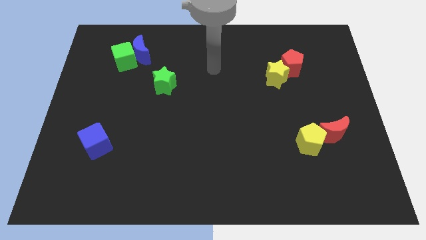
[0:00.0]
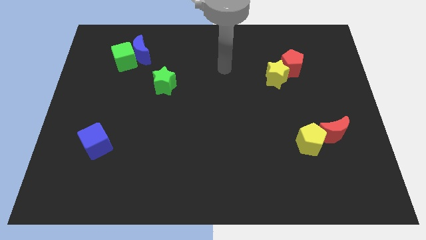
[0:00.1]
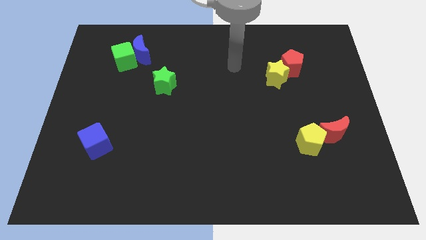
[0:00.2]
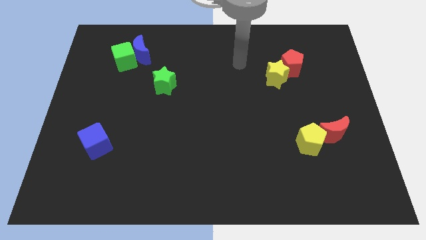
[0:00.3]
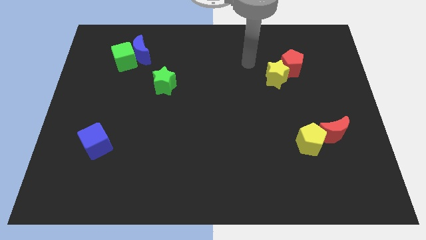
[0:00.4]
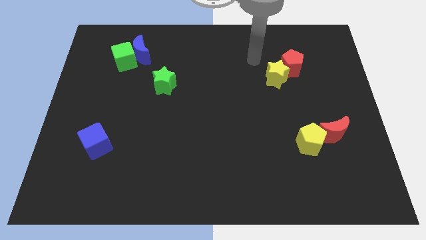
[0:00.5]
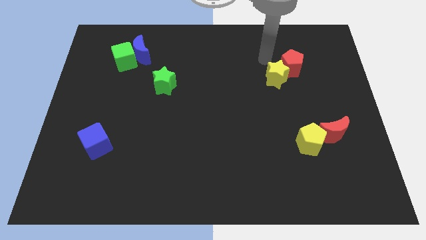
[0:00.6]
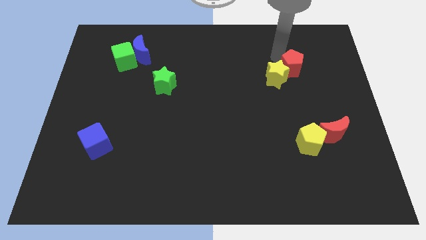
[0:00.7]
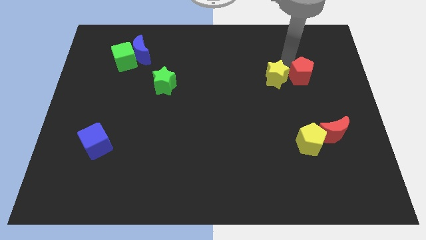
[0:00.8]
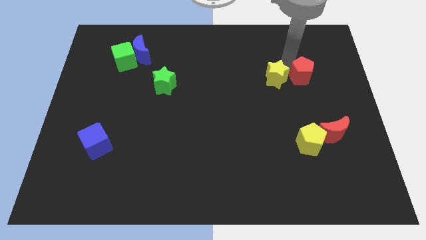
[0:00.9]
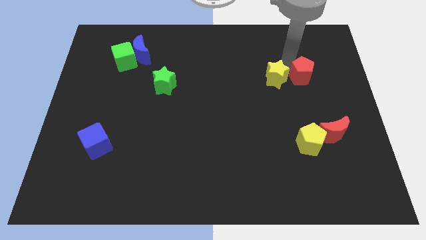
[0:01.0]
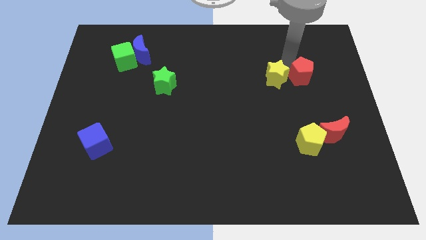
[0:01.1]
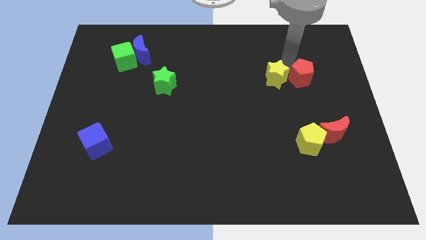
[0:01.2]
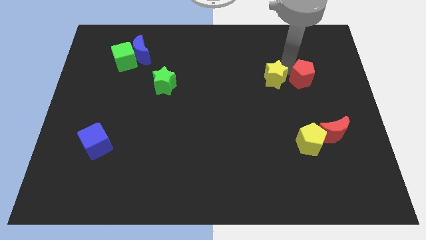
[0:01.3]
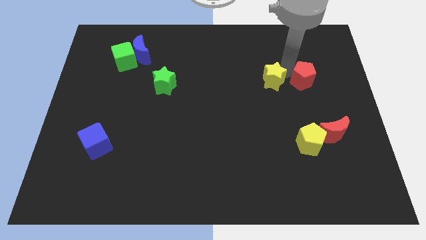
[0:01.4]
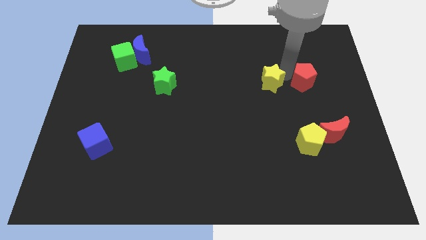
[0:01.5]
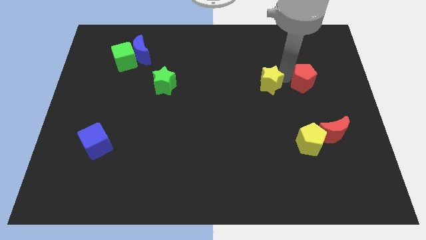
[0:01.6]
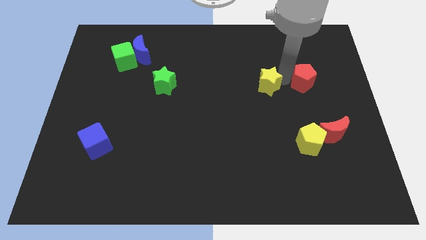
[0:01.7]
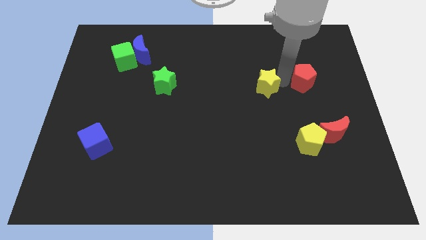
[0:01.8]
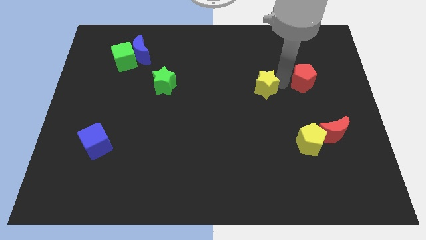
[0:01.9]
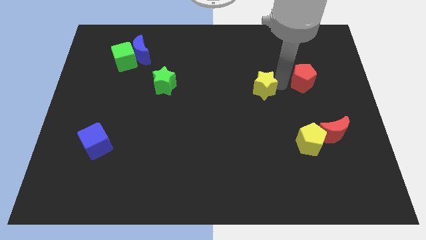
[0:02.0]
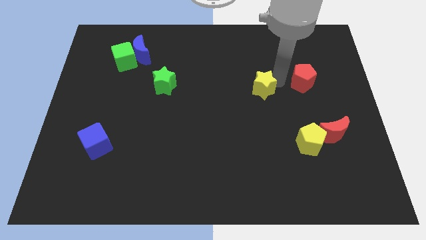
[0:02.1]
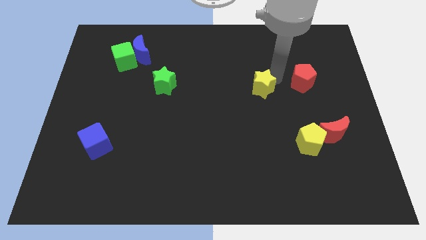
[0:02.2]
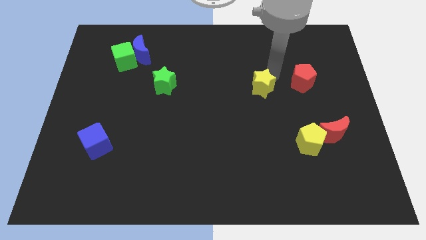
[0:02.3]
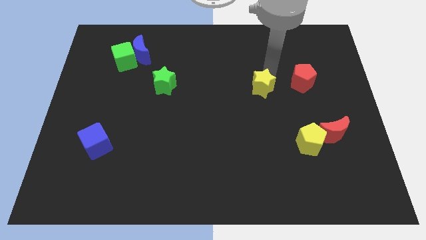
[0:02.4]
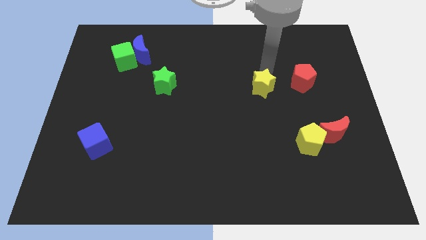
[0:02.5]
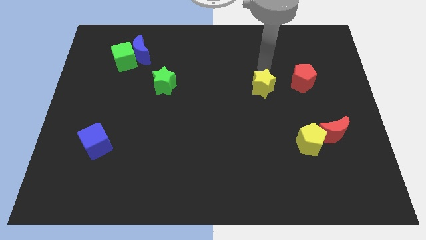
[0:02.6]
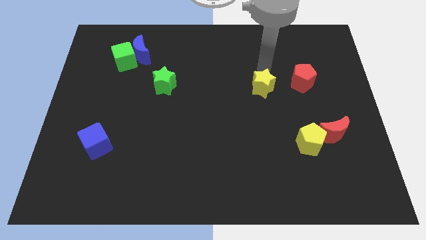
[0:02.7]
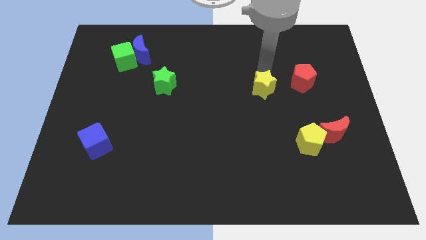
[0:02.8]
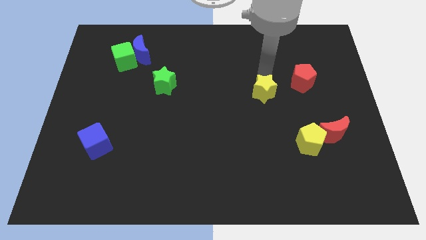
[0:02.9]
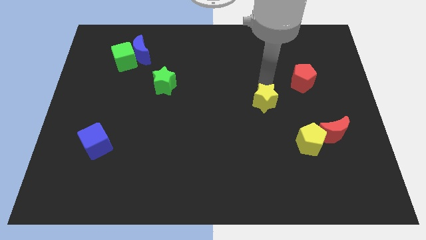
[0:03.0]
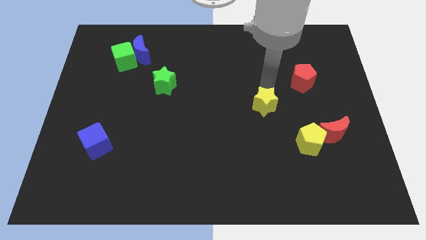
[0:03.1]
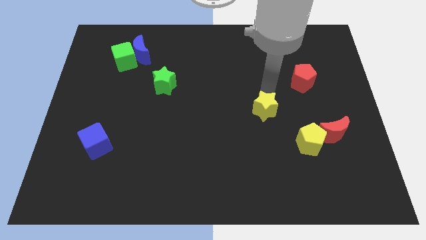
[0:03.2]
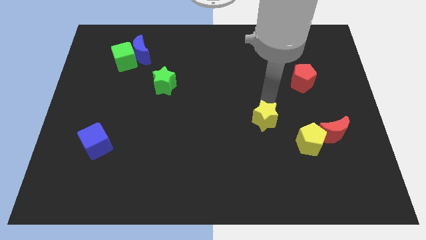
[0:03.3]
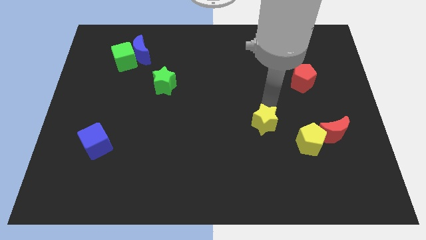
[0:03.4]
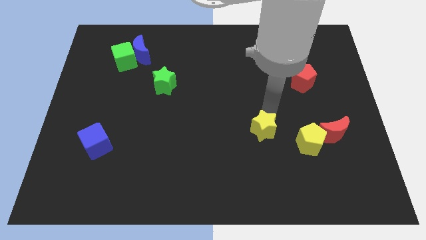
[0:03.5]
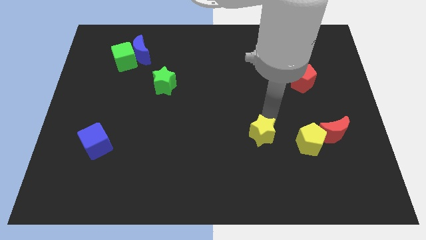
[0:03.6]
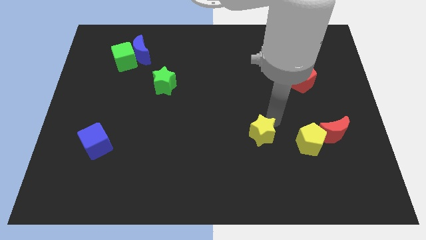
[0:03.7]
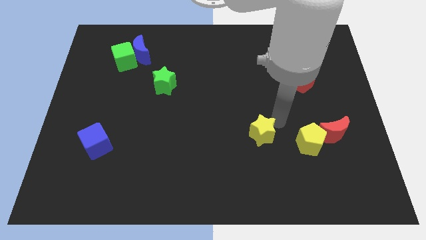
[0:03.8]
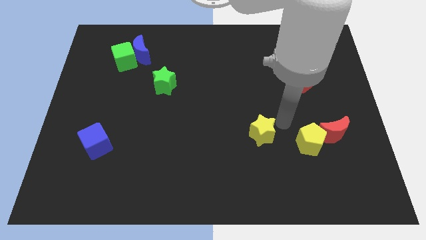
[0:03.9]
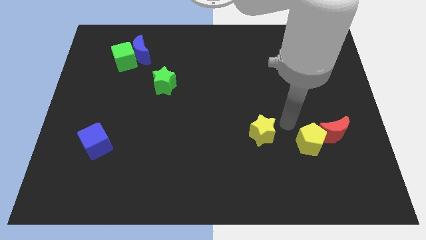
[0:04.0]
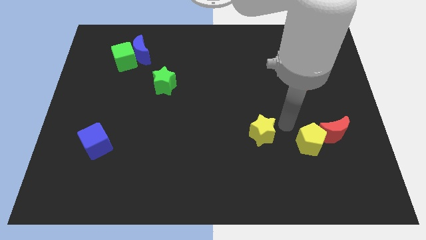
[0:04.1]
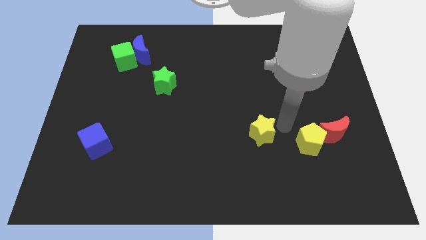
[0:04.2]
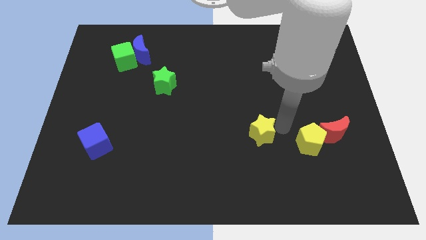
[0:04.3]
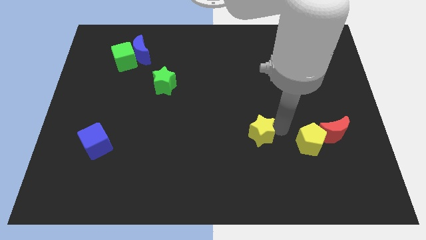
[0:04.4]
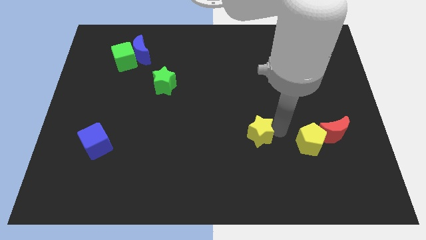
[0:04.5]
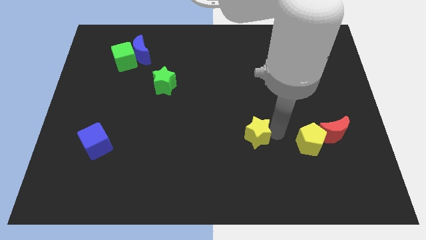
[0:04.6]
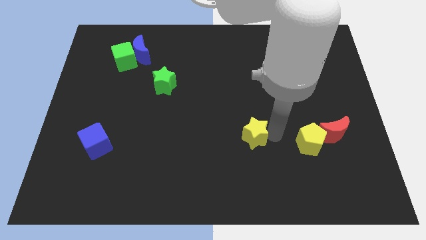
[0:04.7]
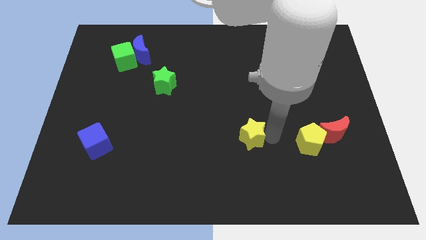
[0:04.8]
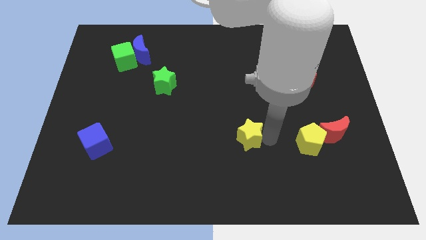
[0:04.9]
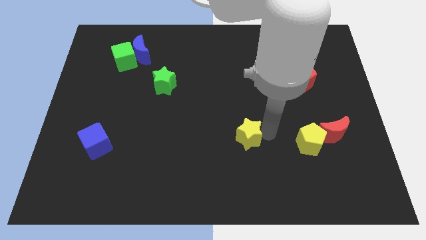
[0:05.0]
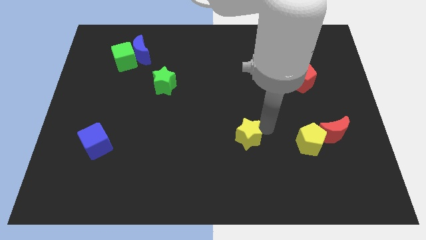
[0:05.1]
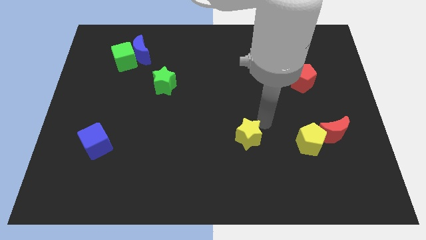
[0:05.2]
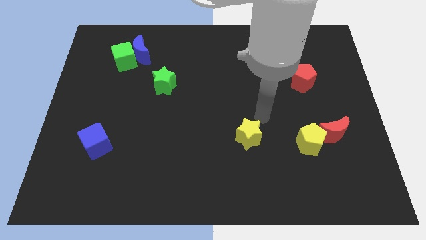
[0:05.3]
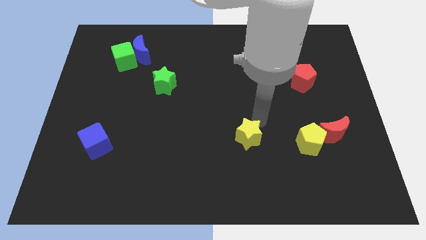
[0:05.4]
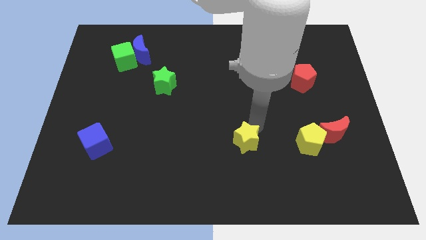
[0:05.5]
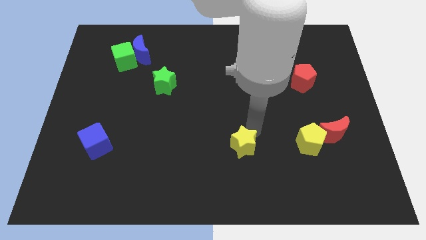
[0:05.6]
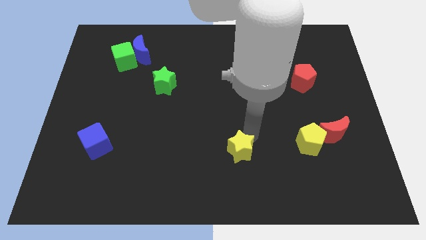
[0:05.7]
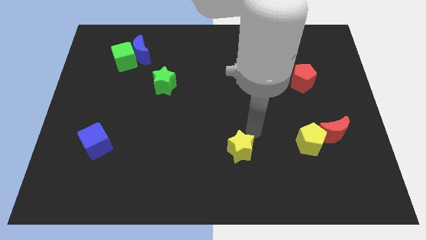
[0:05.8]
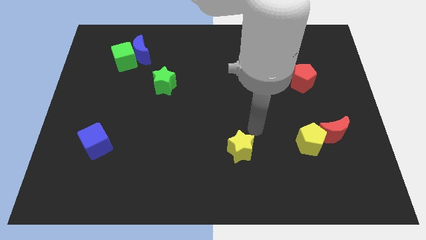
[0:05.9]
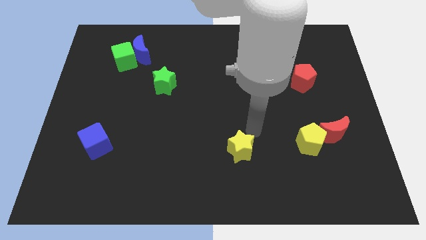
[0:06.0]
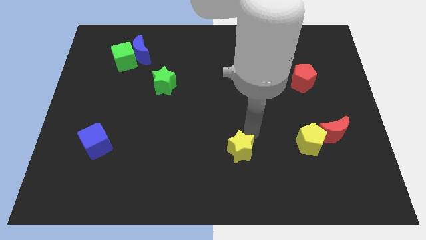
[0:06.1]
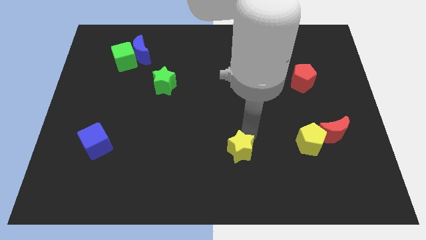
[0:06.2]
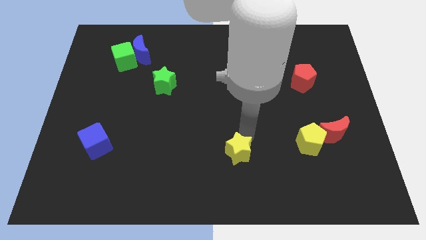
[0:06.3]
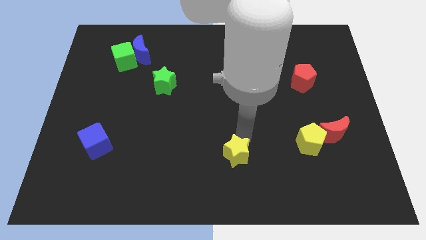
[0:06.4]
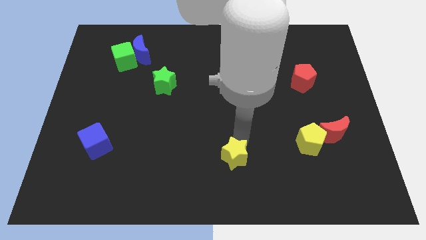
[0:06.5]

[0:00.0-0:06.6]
move the yellow star to the bottom side
